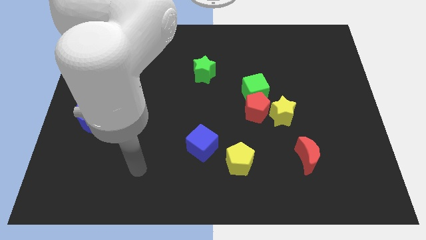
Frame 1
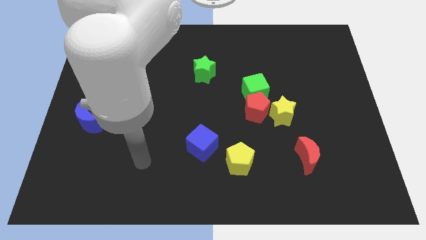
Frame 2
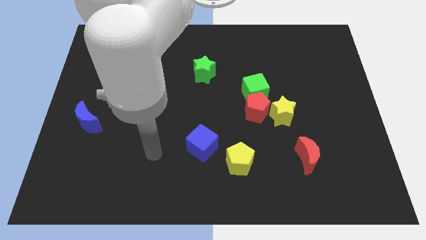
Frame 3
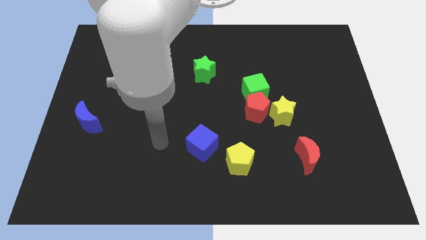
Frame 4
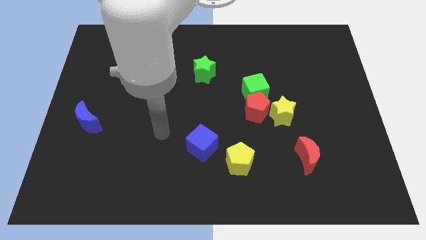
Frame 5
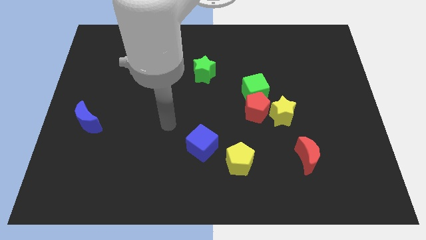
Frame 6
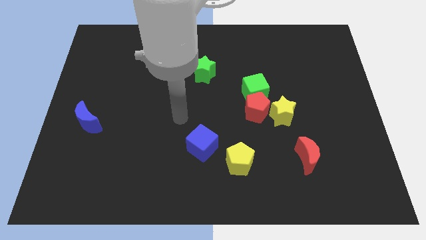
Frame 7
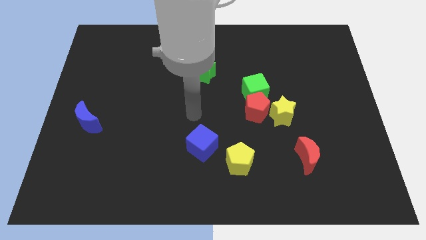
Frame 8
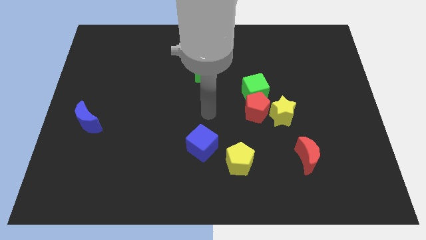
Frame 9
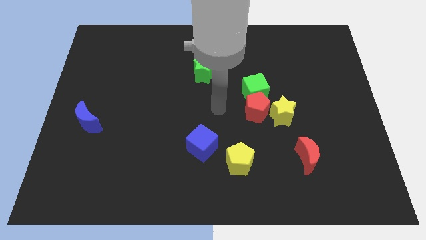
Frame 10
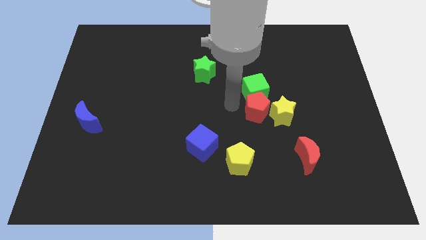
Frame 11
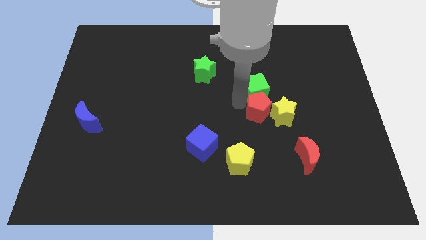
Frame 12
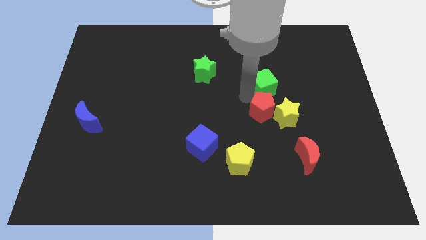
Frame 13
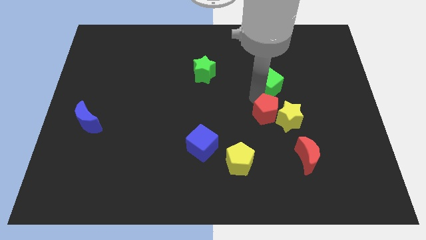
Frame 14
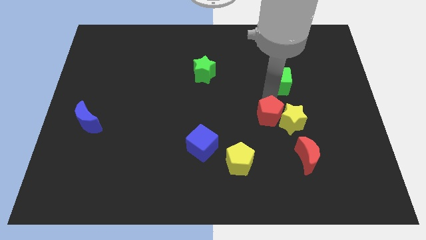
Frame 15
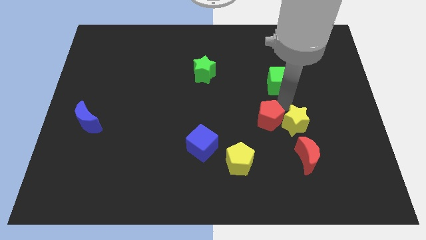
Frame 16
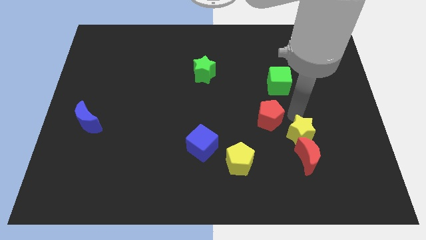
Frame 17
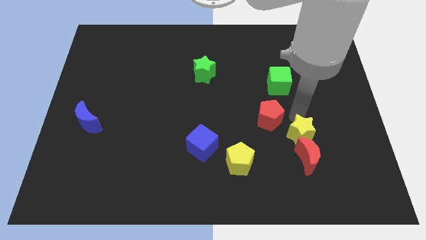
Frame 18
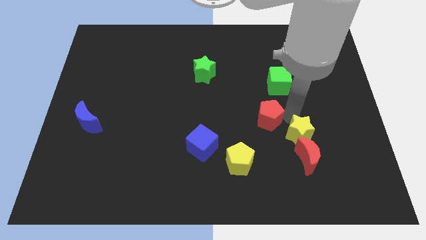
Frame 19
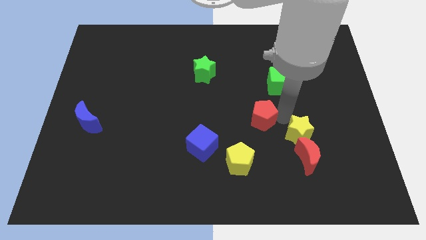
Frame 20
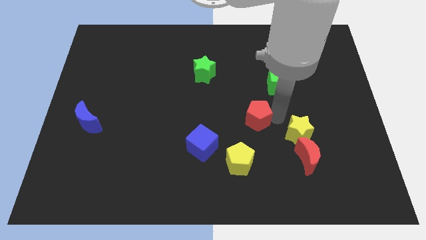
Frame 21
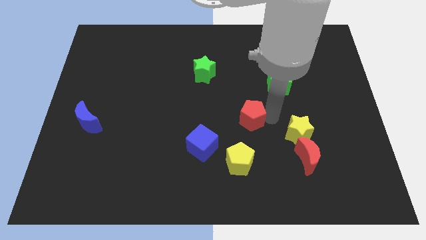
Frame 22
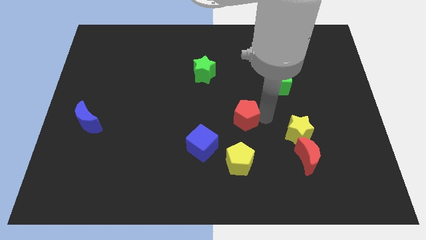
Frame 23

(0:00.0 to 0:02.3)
separate the red pentagon from the green cube and yellow star

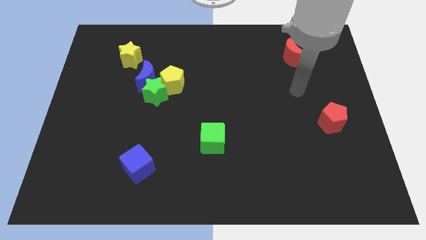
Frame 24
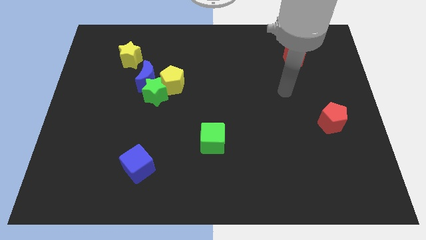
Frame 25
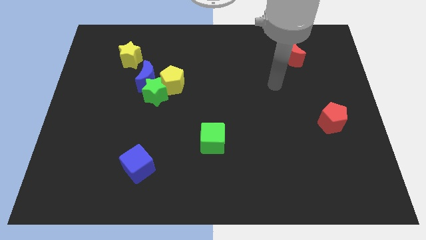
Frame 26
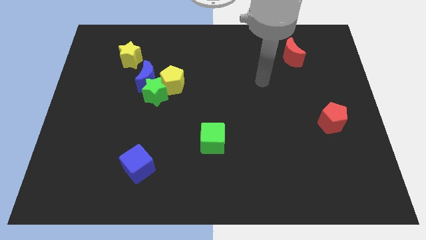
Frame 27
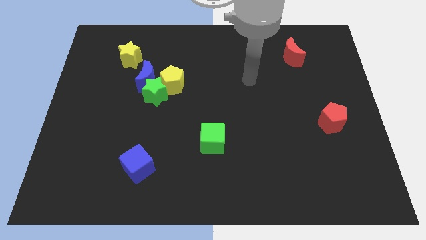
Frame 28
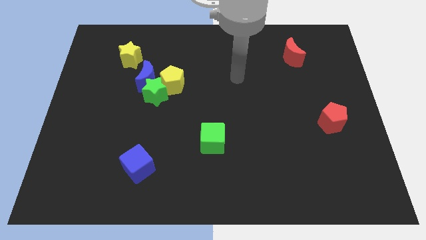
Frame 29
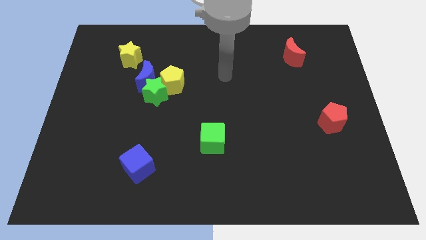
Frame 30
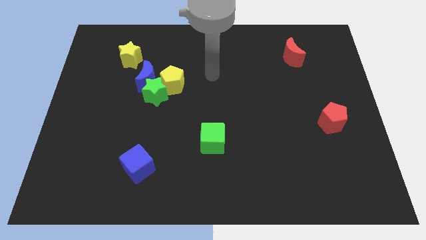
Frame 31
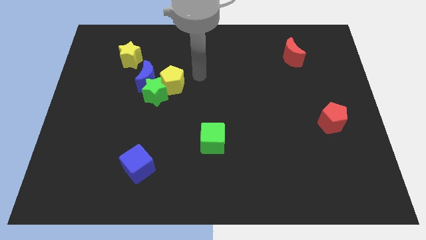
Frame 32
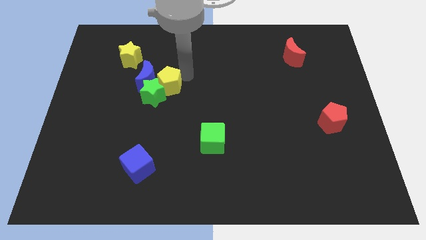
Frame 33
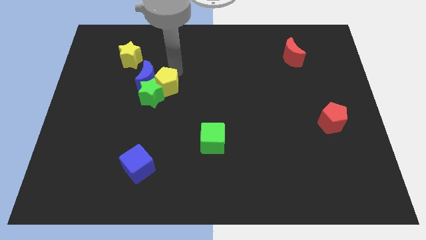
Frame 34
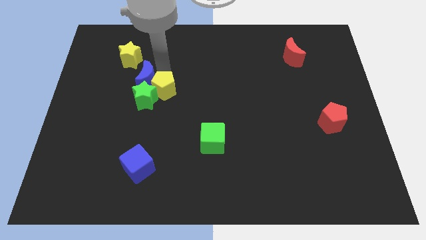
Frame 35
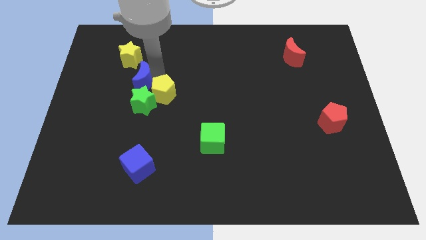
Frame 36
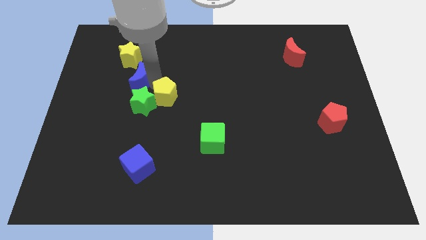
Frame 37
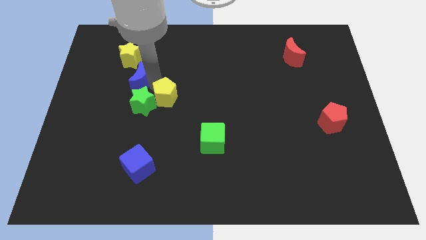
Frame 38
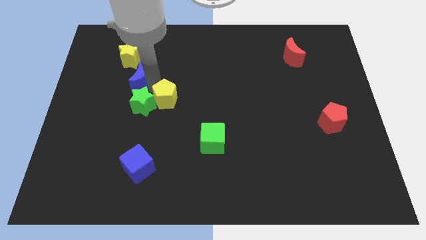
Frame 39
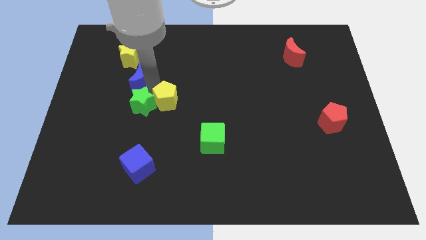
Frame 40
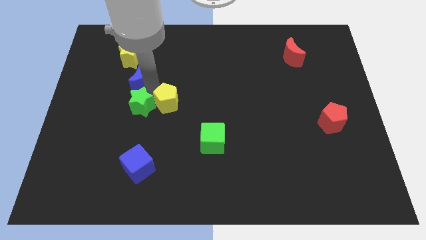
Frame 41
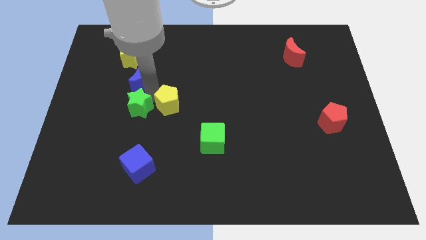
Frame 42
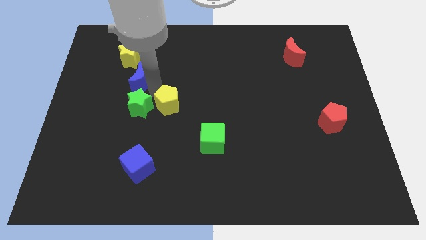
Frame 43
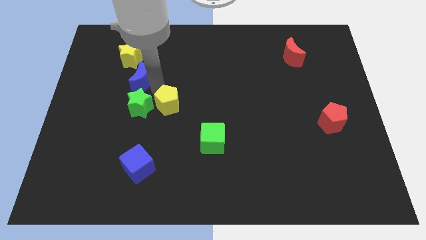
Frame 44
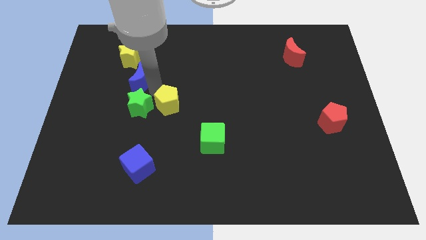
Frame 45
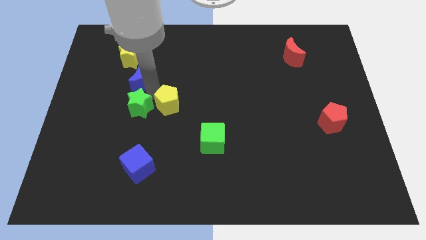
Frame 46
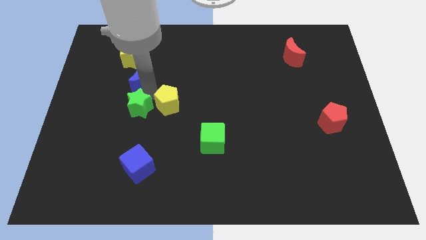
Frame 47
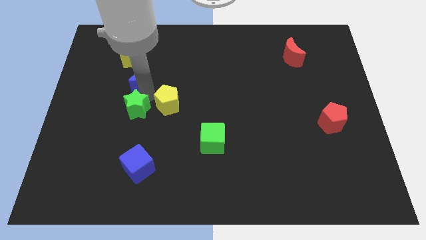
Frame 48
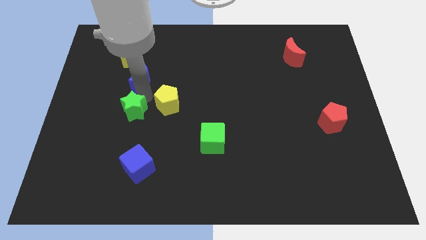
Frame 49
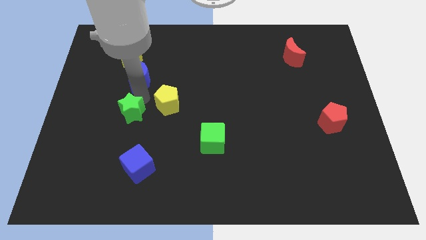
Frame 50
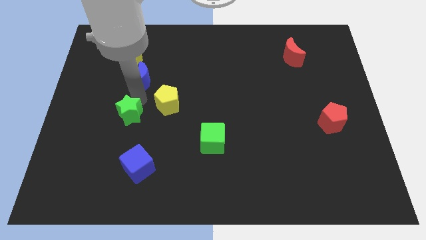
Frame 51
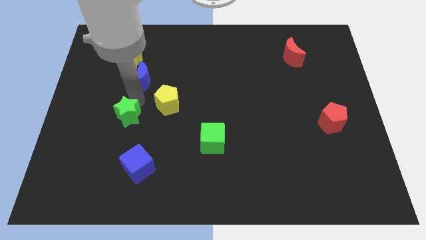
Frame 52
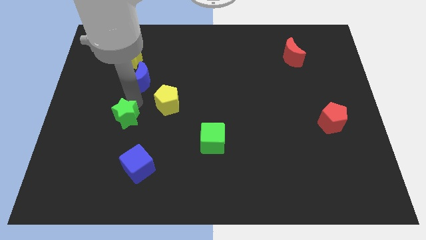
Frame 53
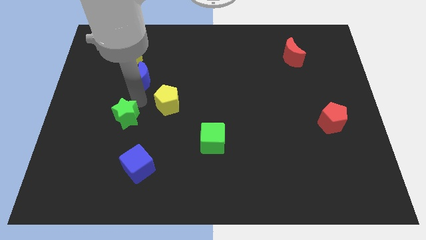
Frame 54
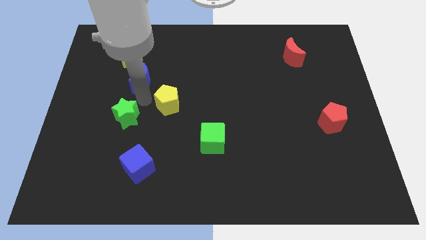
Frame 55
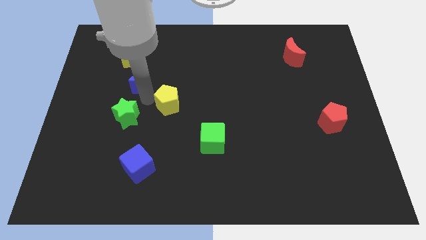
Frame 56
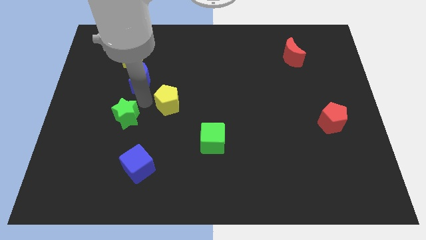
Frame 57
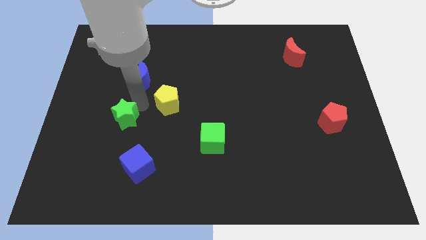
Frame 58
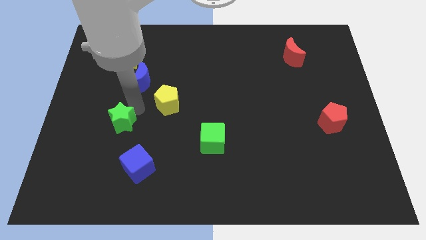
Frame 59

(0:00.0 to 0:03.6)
move the green star away from the yellow pentagon and blue moon

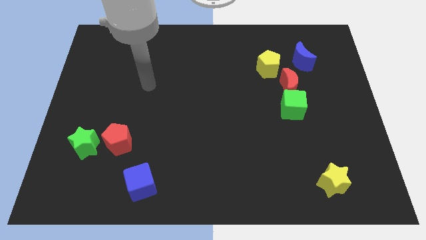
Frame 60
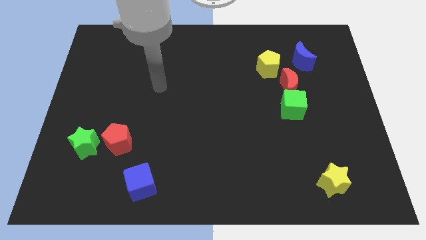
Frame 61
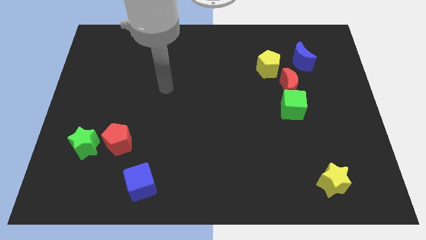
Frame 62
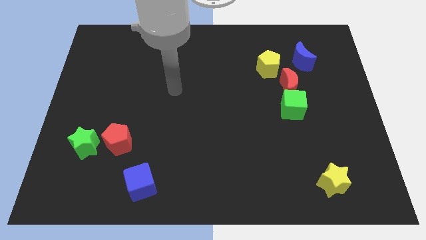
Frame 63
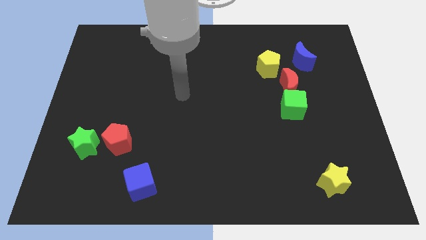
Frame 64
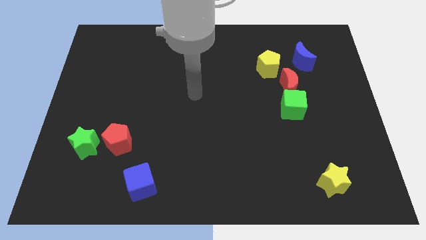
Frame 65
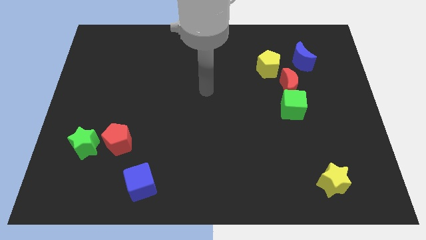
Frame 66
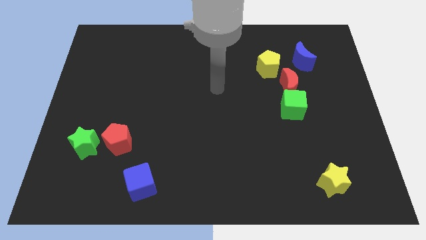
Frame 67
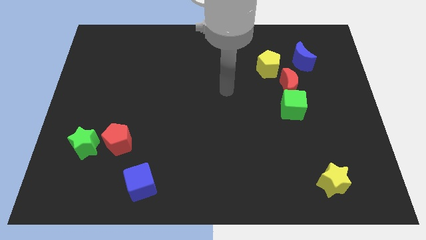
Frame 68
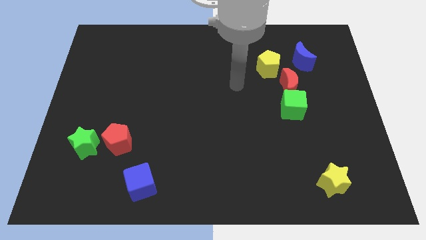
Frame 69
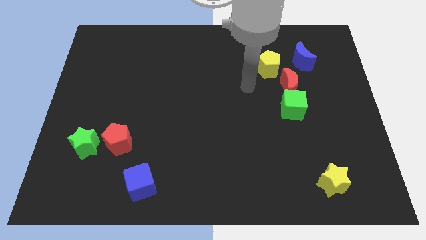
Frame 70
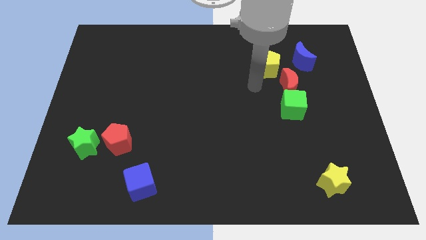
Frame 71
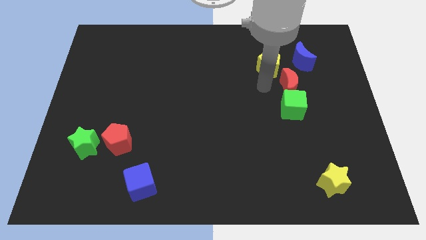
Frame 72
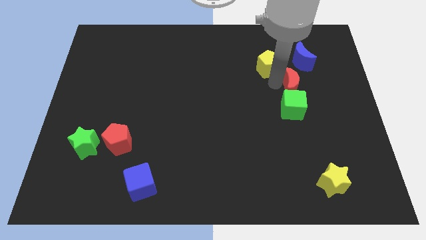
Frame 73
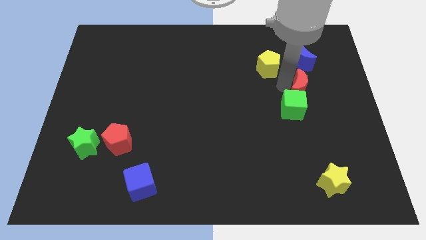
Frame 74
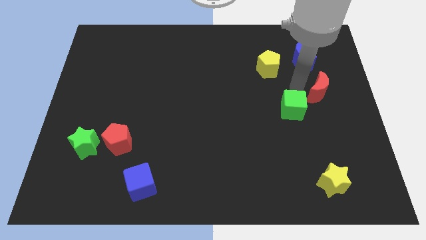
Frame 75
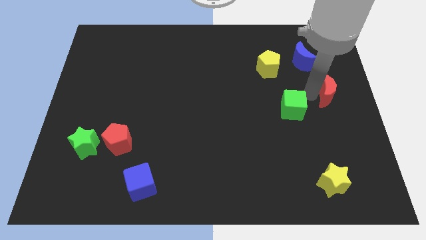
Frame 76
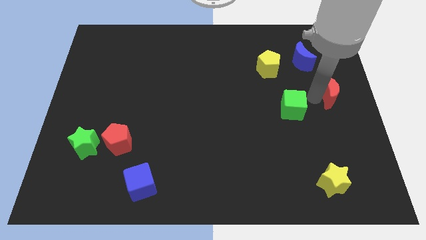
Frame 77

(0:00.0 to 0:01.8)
pull the green cube apart from the red moon

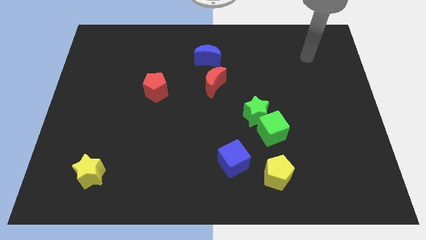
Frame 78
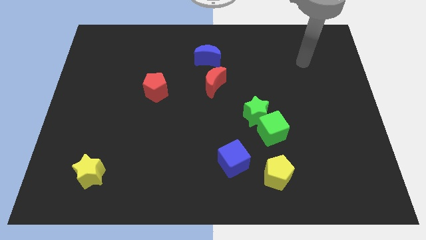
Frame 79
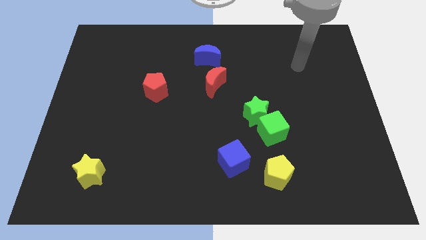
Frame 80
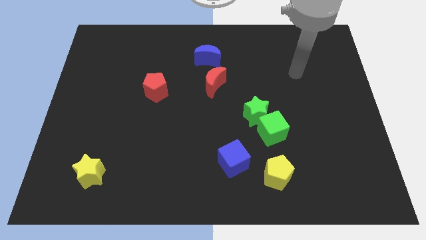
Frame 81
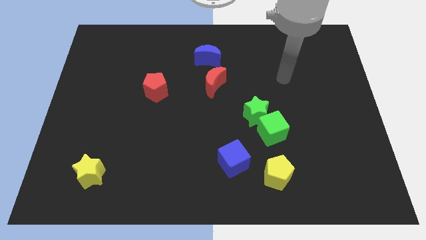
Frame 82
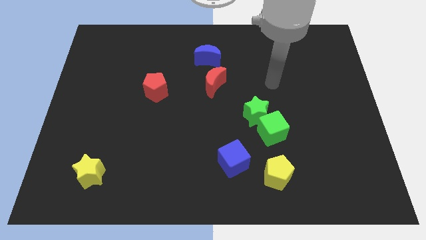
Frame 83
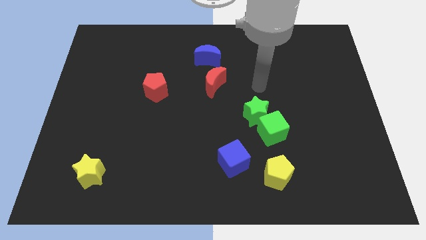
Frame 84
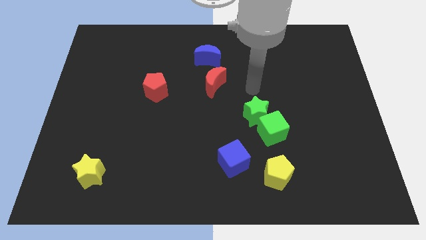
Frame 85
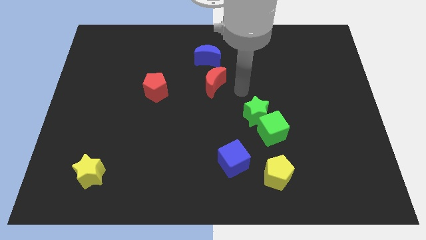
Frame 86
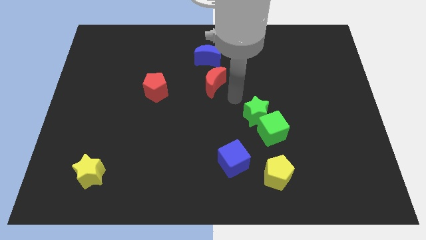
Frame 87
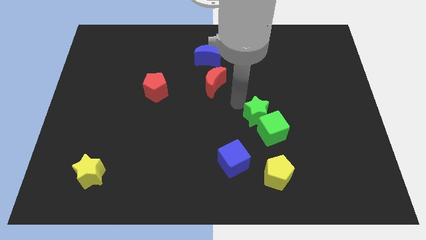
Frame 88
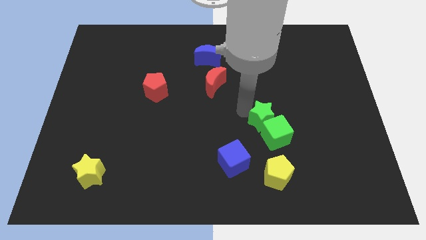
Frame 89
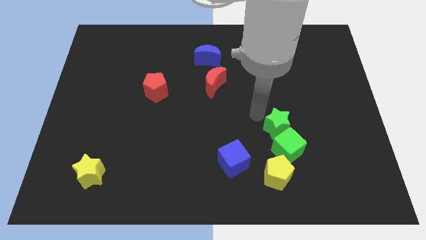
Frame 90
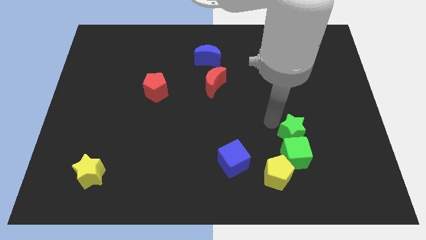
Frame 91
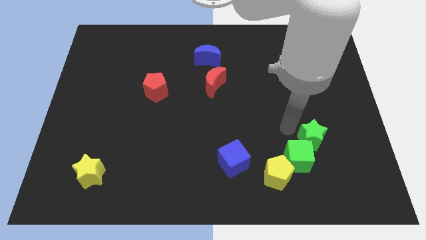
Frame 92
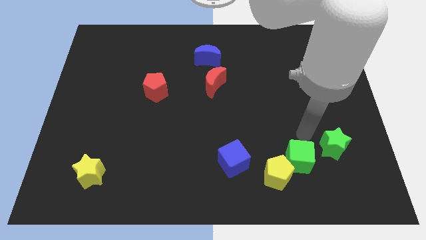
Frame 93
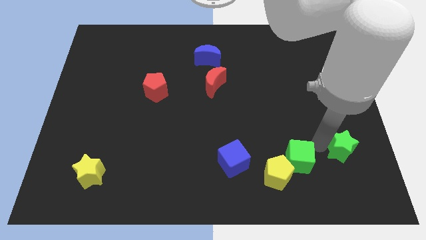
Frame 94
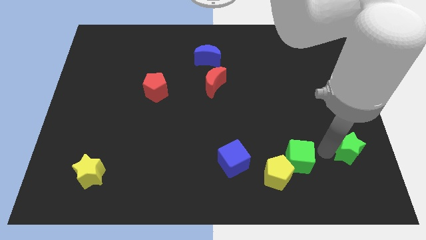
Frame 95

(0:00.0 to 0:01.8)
move the green cube away from the green star
